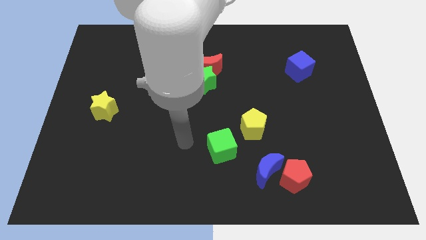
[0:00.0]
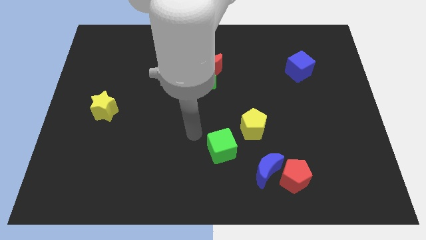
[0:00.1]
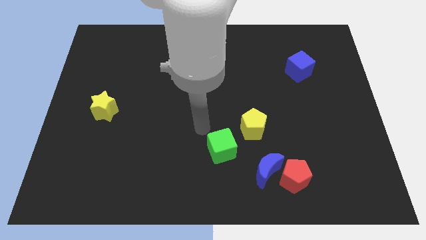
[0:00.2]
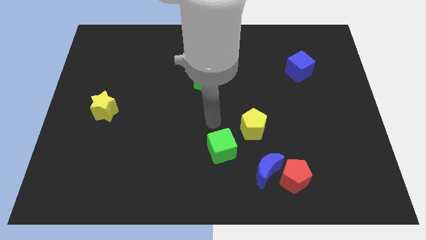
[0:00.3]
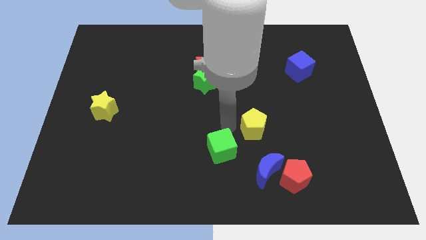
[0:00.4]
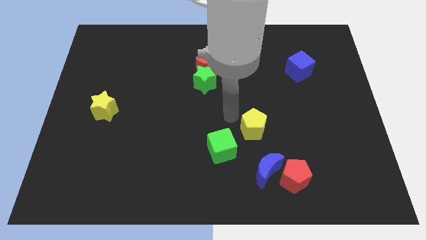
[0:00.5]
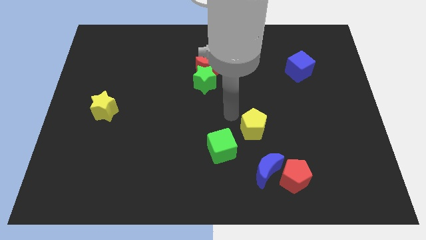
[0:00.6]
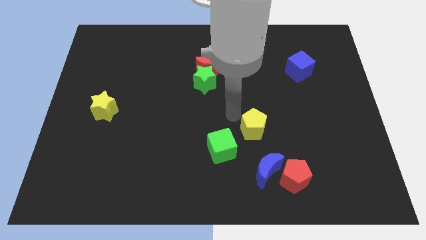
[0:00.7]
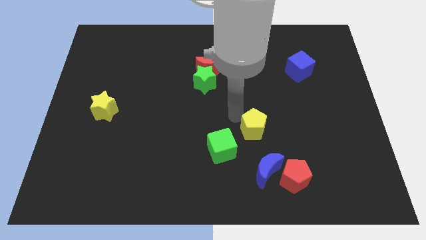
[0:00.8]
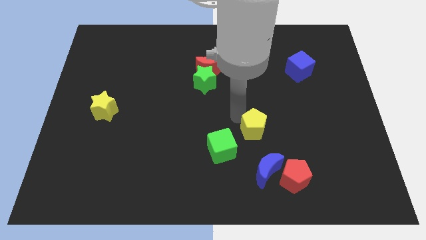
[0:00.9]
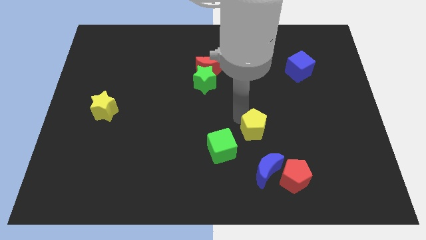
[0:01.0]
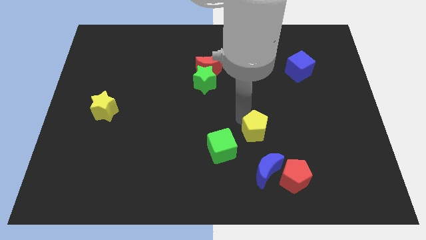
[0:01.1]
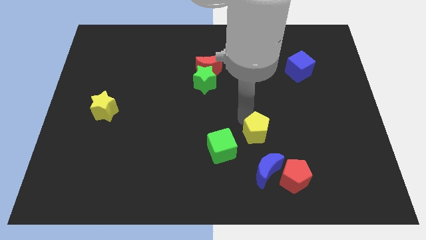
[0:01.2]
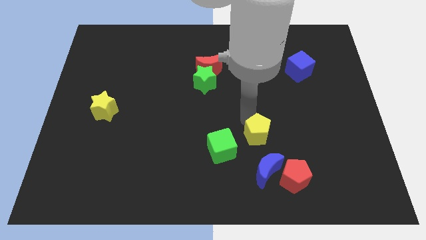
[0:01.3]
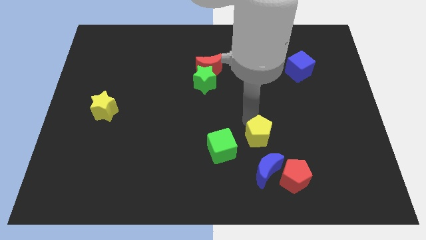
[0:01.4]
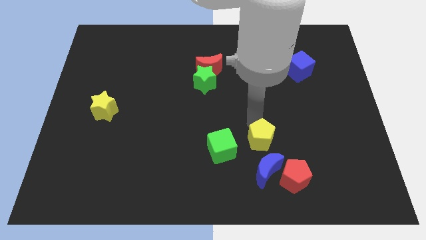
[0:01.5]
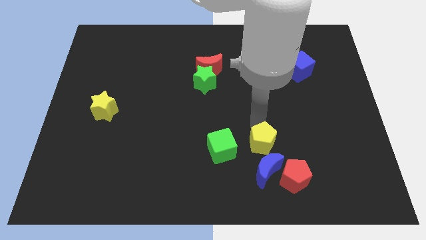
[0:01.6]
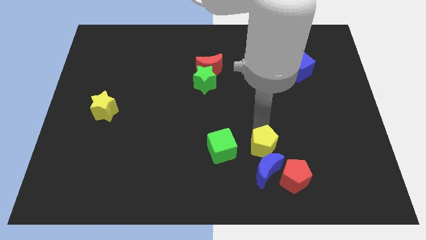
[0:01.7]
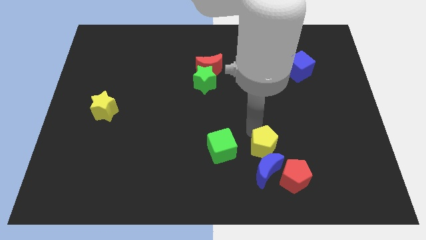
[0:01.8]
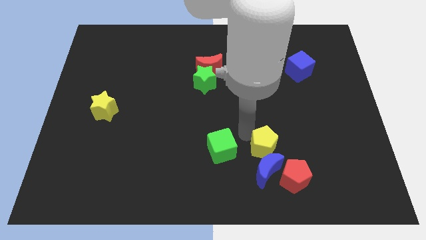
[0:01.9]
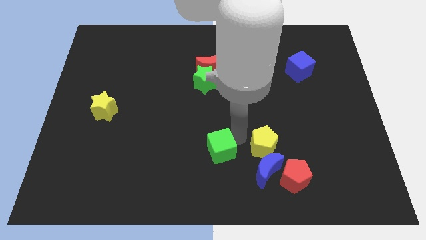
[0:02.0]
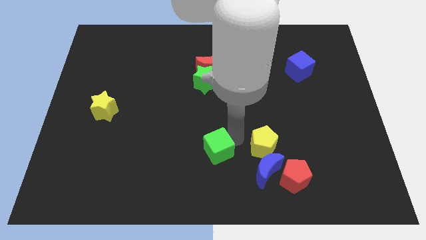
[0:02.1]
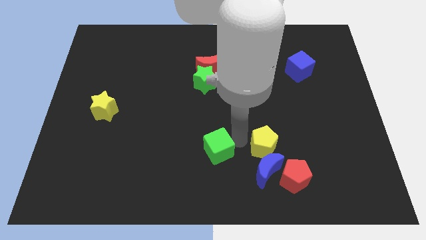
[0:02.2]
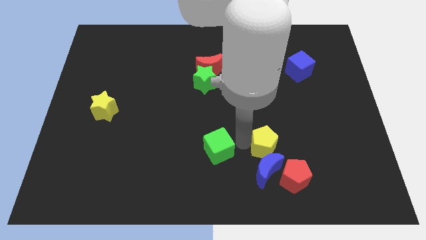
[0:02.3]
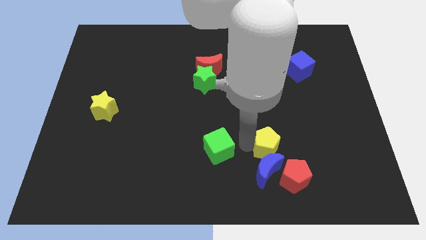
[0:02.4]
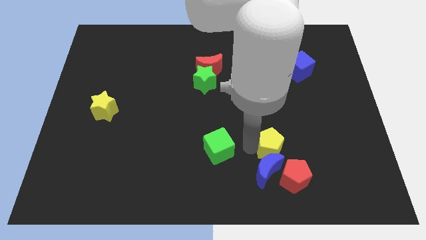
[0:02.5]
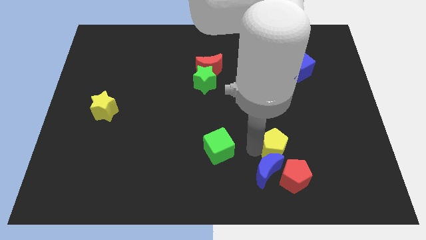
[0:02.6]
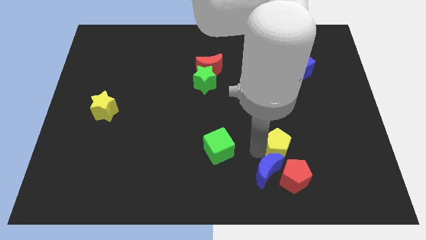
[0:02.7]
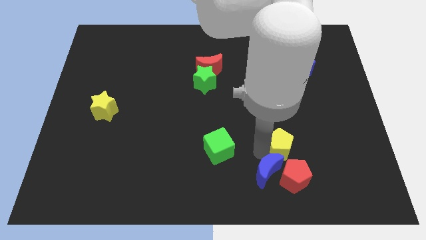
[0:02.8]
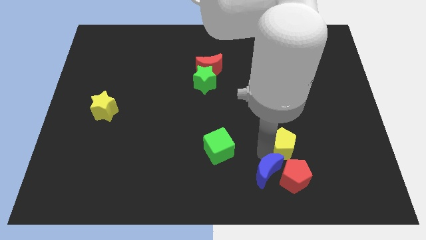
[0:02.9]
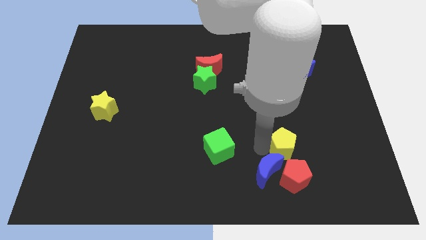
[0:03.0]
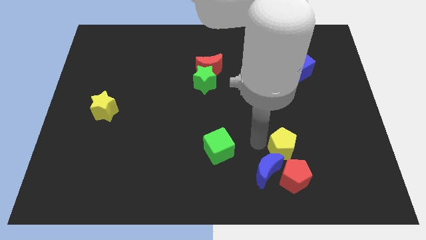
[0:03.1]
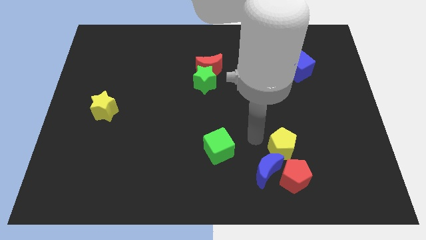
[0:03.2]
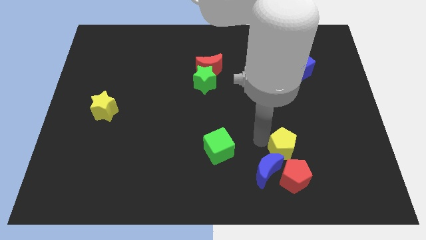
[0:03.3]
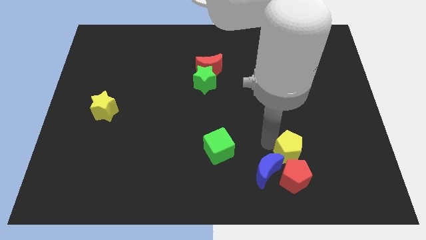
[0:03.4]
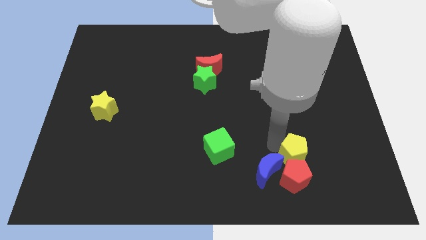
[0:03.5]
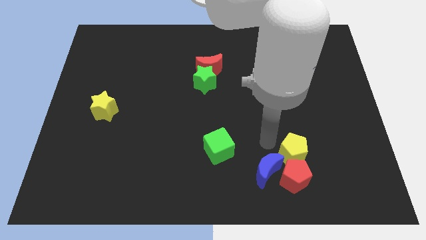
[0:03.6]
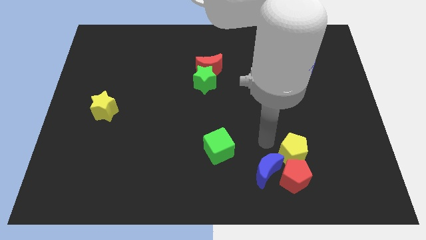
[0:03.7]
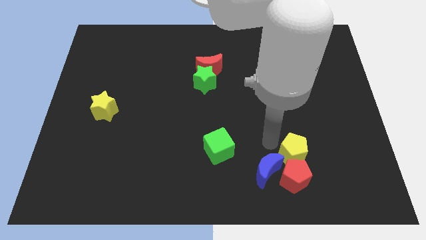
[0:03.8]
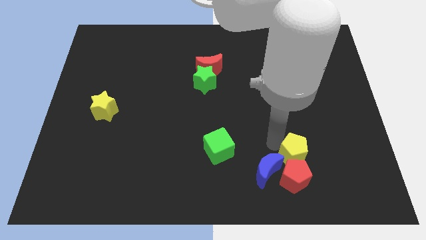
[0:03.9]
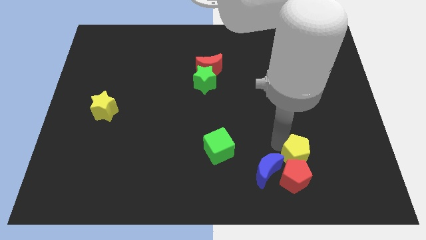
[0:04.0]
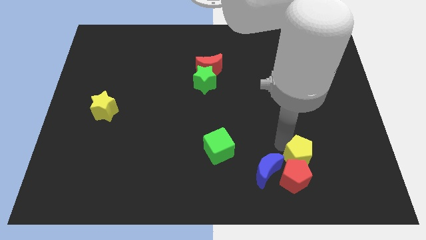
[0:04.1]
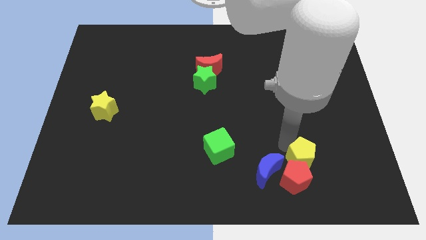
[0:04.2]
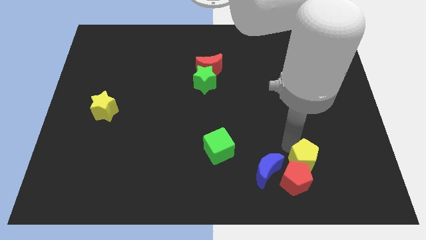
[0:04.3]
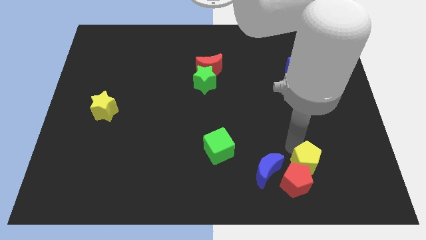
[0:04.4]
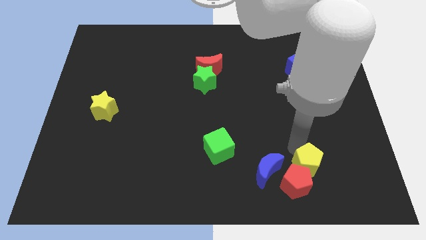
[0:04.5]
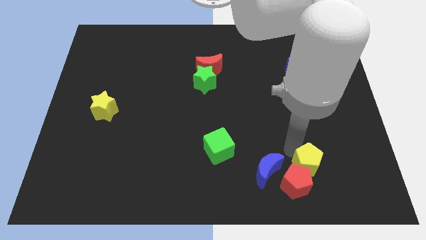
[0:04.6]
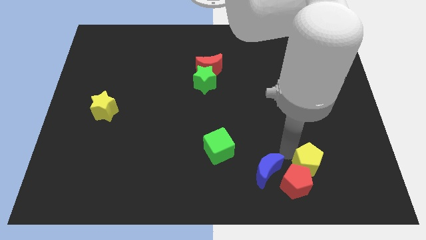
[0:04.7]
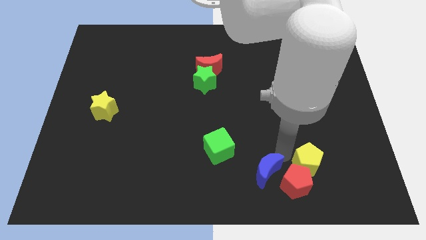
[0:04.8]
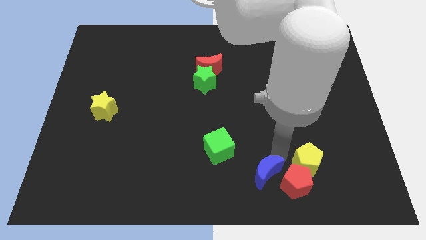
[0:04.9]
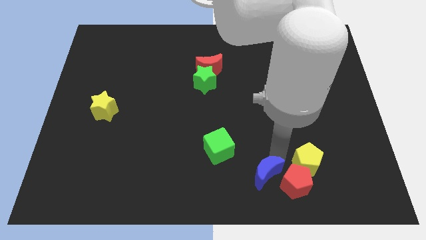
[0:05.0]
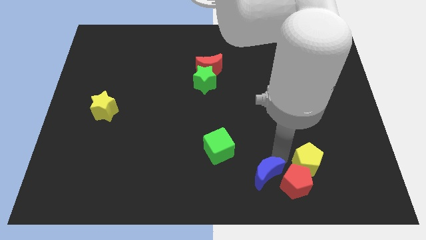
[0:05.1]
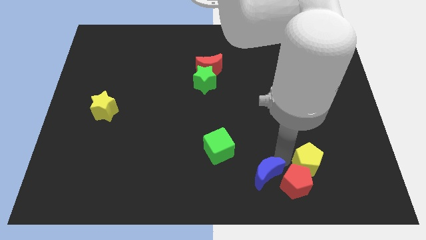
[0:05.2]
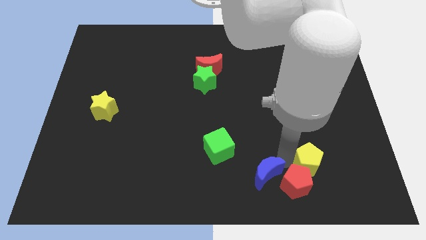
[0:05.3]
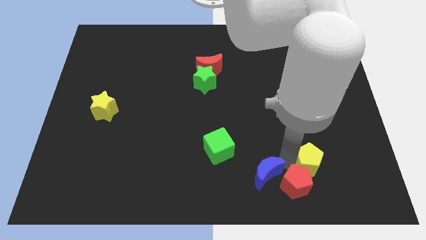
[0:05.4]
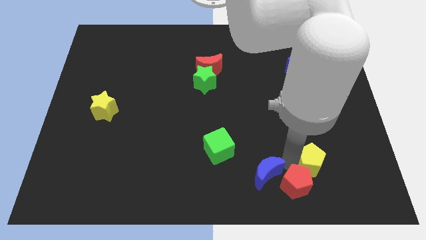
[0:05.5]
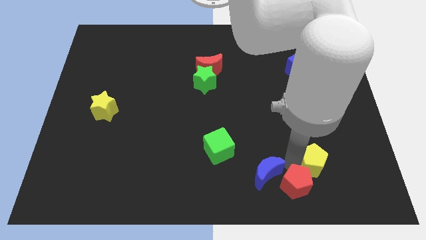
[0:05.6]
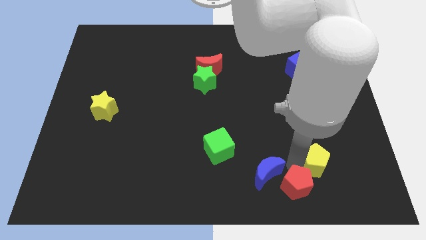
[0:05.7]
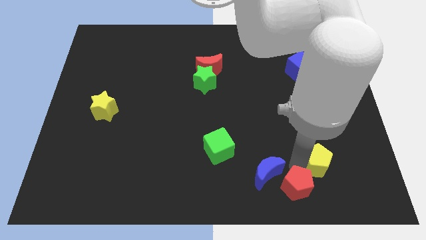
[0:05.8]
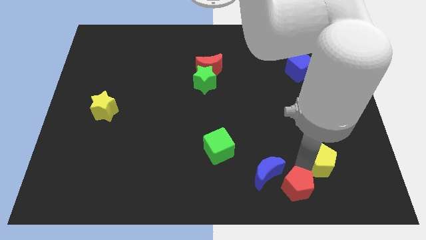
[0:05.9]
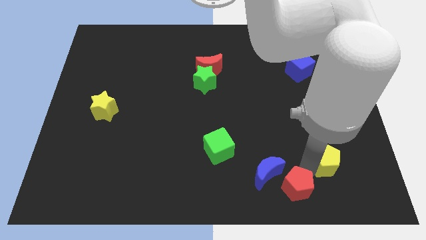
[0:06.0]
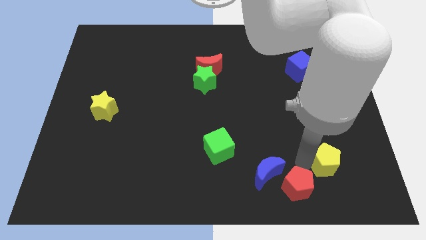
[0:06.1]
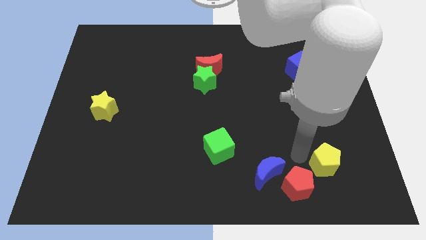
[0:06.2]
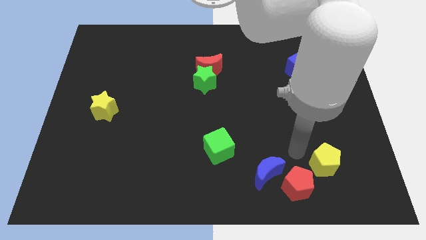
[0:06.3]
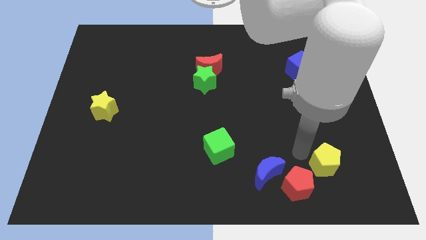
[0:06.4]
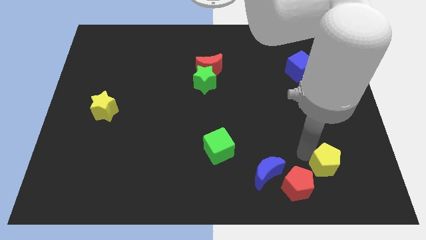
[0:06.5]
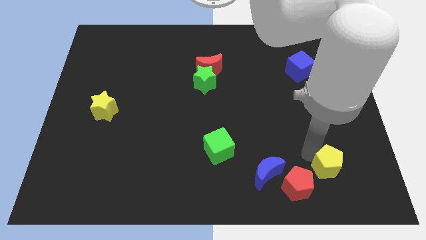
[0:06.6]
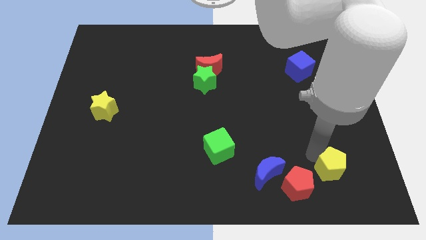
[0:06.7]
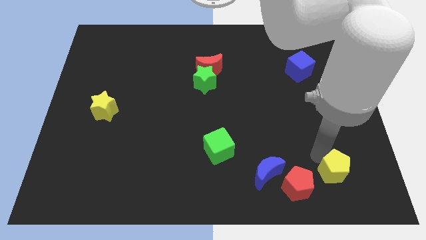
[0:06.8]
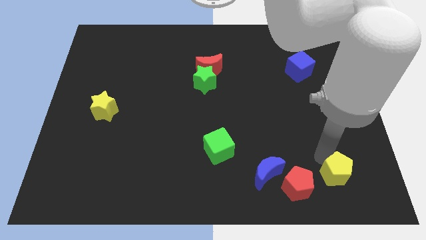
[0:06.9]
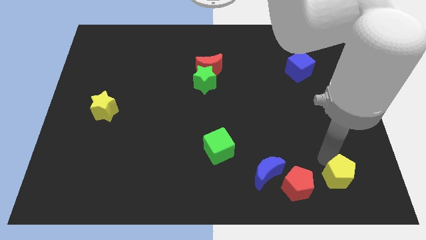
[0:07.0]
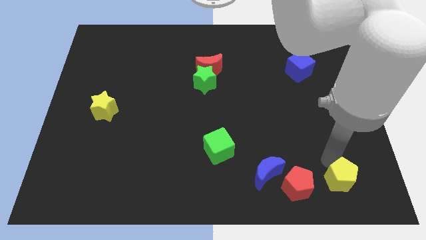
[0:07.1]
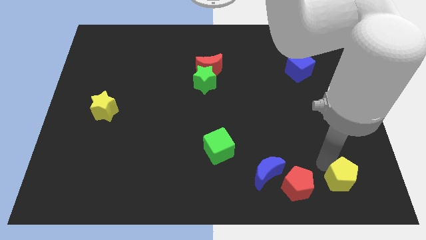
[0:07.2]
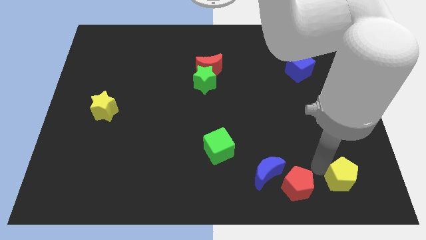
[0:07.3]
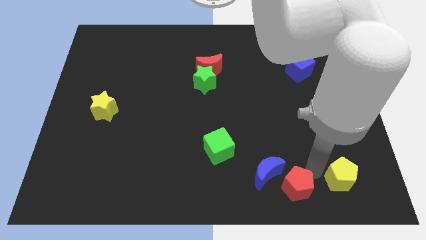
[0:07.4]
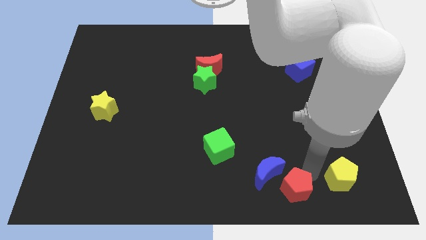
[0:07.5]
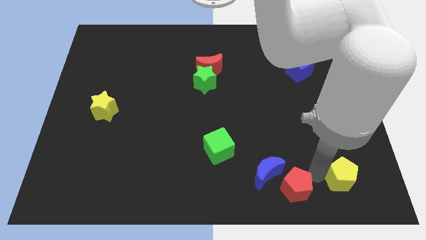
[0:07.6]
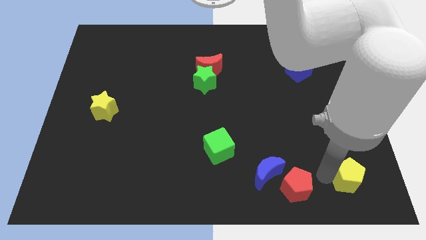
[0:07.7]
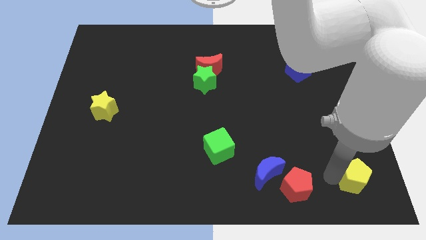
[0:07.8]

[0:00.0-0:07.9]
move the yellow pentagon to the bottom right
